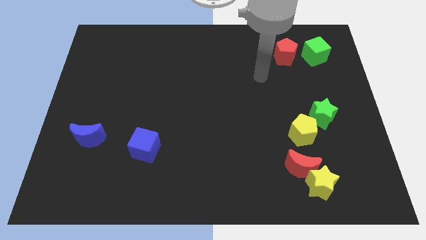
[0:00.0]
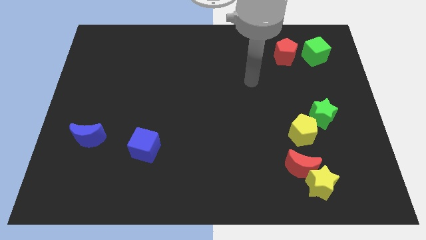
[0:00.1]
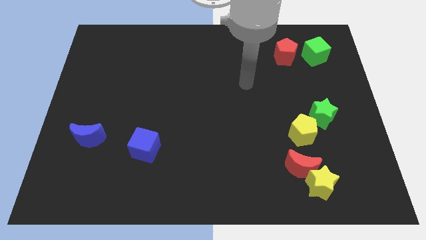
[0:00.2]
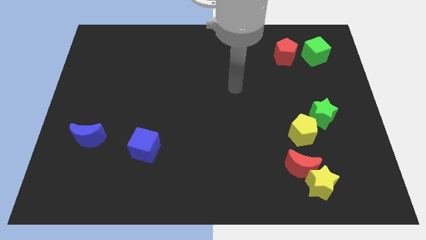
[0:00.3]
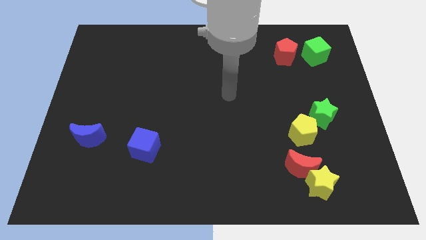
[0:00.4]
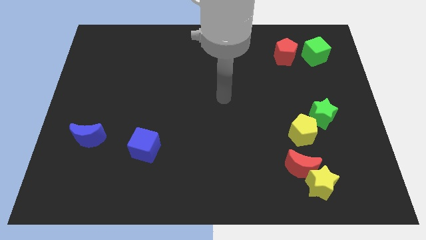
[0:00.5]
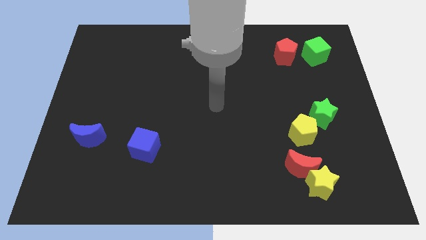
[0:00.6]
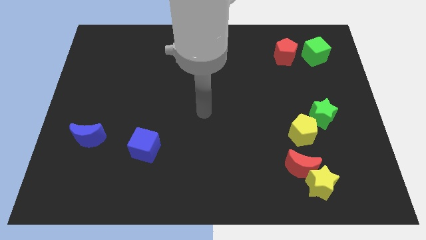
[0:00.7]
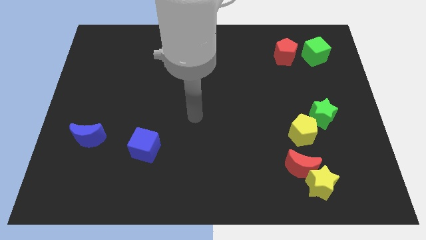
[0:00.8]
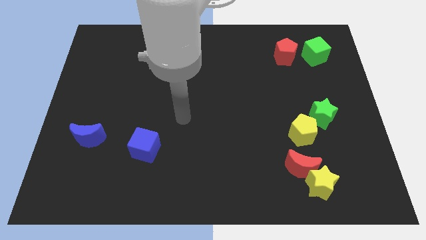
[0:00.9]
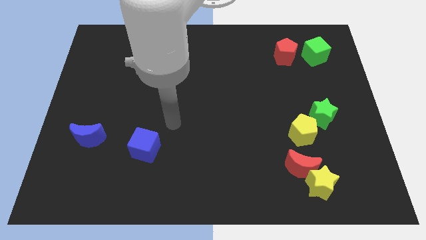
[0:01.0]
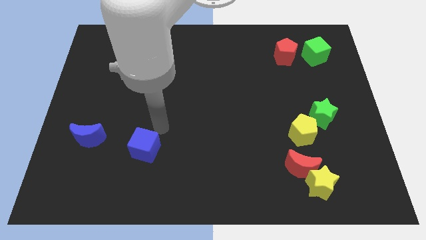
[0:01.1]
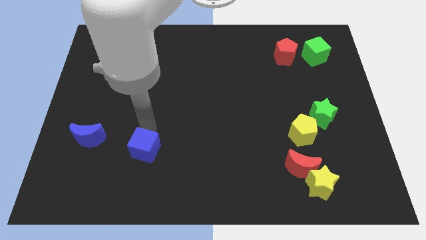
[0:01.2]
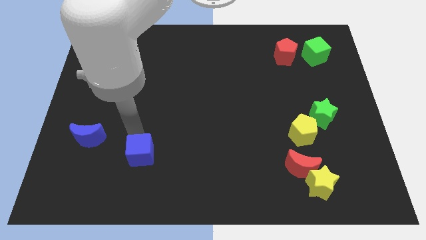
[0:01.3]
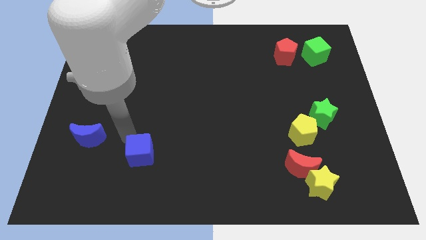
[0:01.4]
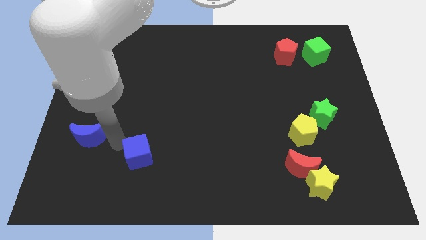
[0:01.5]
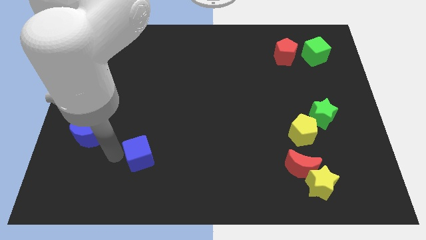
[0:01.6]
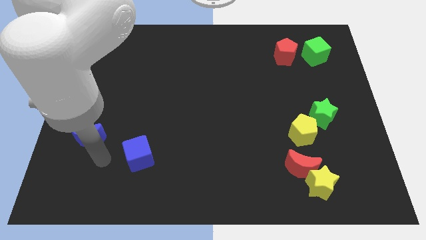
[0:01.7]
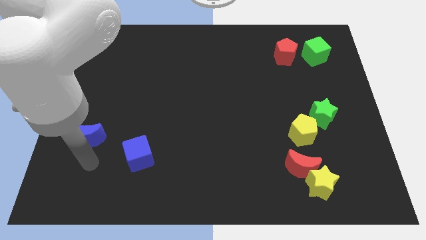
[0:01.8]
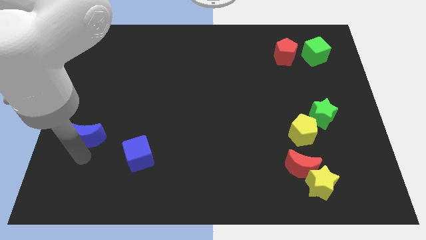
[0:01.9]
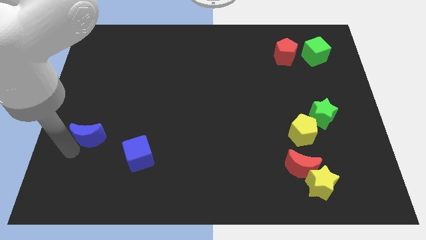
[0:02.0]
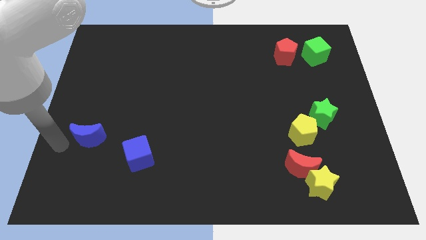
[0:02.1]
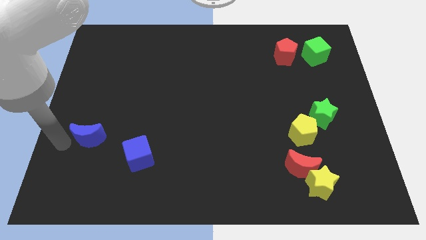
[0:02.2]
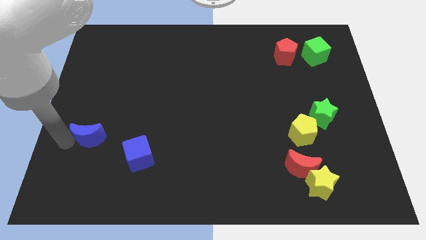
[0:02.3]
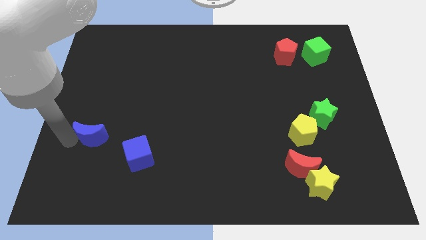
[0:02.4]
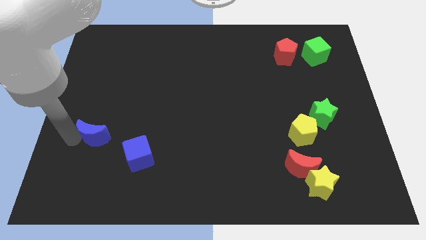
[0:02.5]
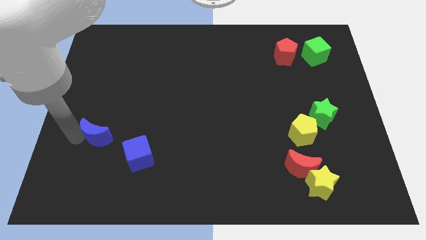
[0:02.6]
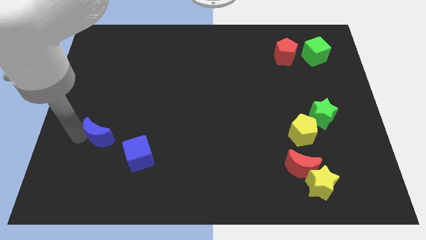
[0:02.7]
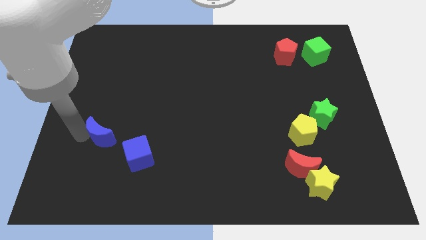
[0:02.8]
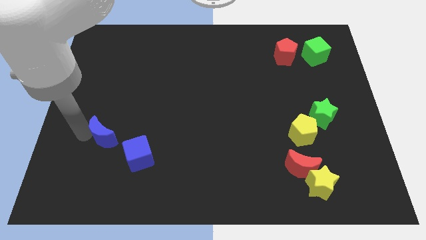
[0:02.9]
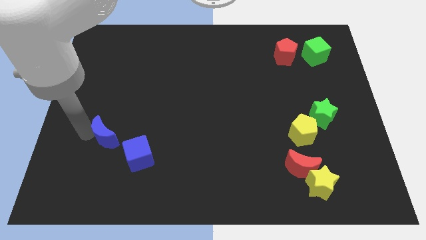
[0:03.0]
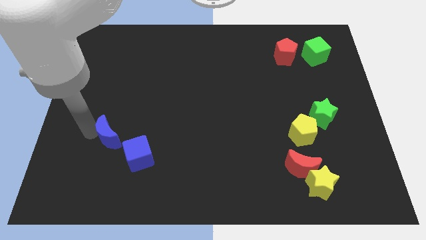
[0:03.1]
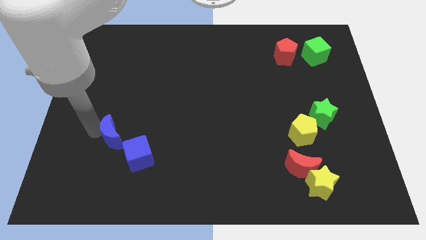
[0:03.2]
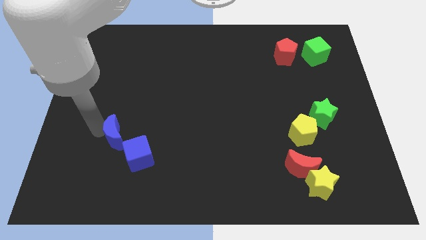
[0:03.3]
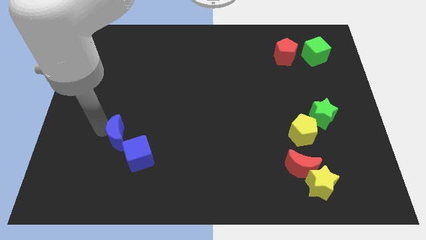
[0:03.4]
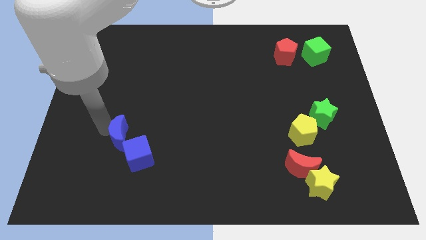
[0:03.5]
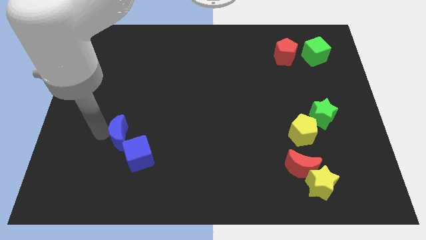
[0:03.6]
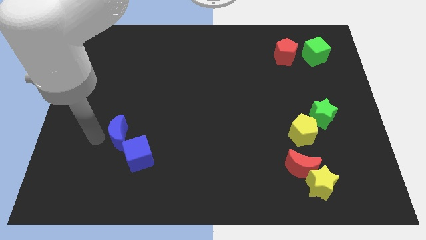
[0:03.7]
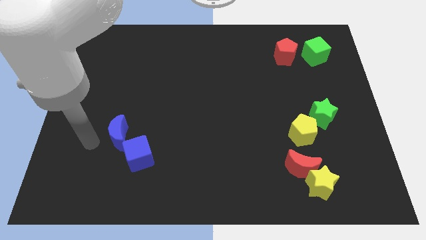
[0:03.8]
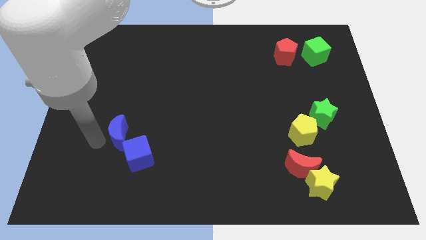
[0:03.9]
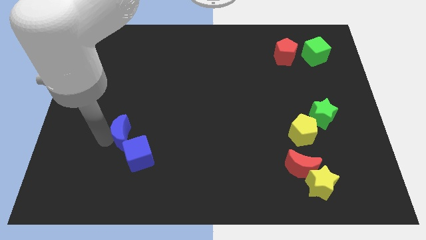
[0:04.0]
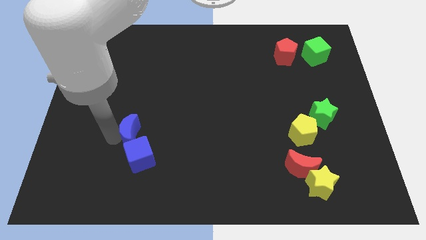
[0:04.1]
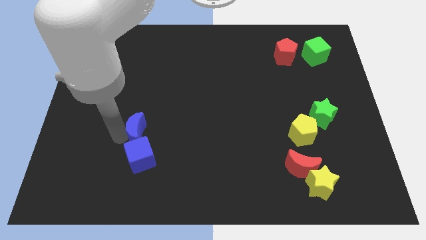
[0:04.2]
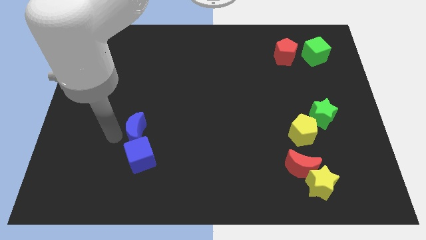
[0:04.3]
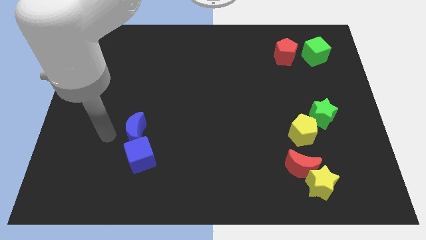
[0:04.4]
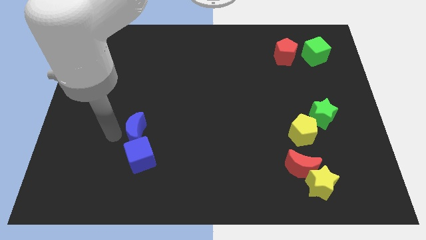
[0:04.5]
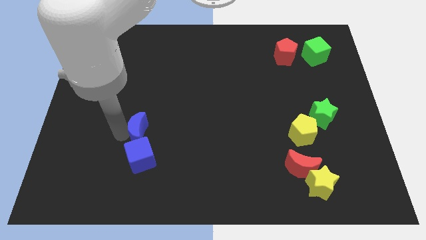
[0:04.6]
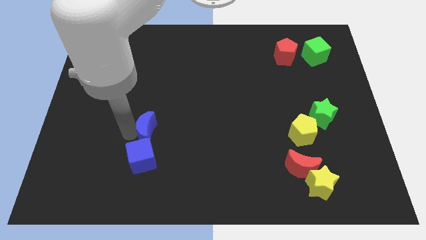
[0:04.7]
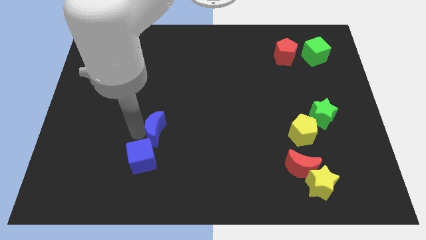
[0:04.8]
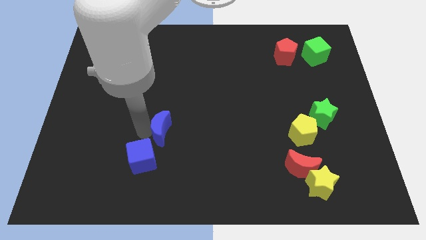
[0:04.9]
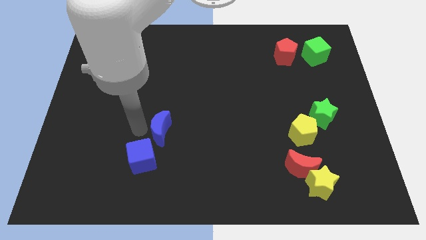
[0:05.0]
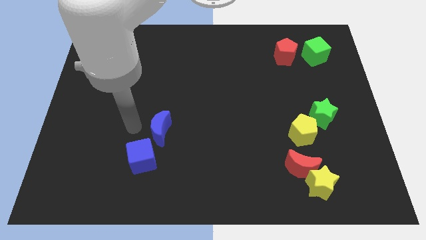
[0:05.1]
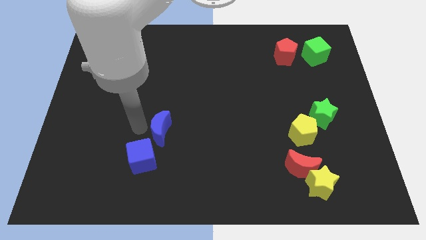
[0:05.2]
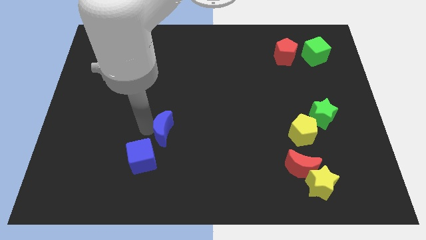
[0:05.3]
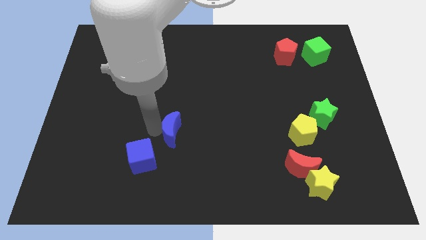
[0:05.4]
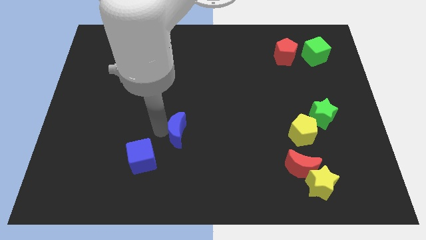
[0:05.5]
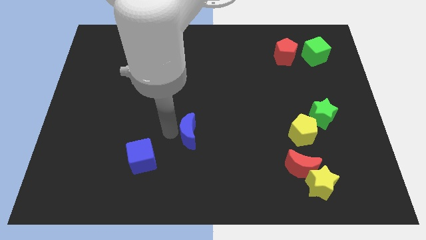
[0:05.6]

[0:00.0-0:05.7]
slide the blue moon to the right

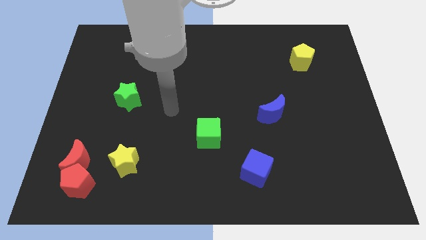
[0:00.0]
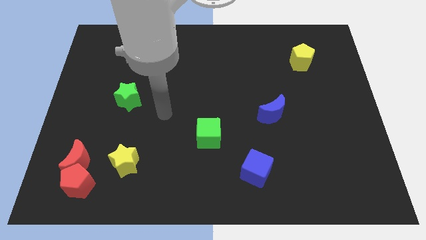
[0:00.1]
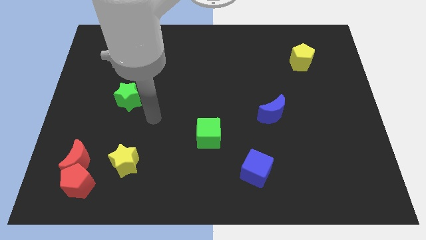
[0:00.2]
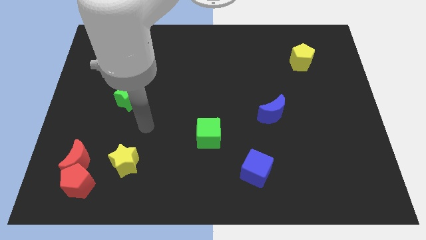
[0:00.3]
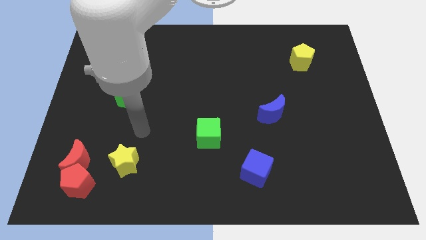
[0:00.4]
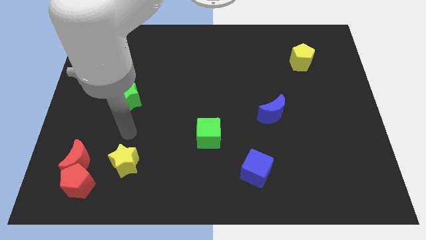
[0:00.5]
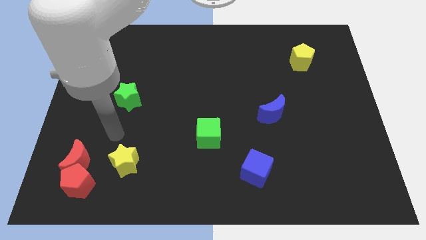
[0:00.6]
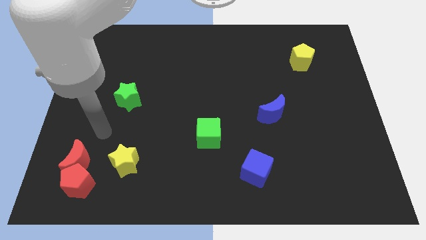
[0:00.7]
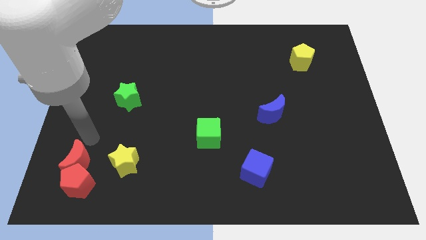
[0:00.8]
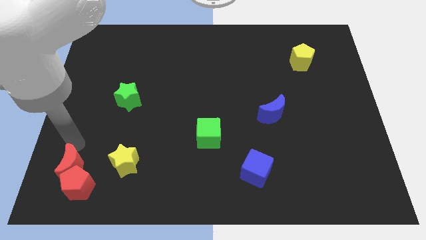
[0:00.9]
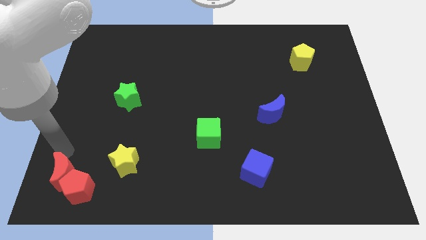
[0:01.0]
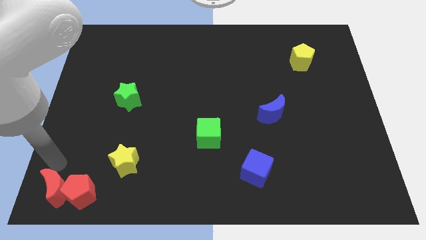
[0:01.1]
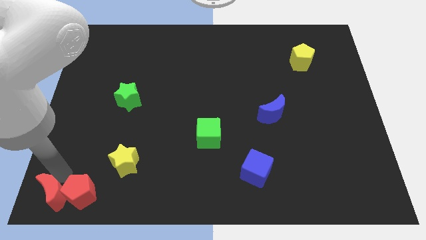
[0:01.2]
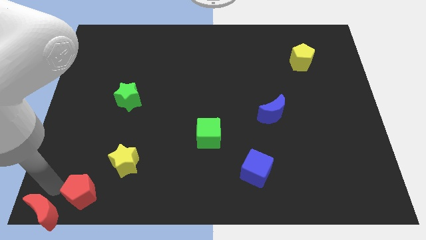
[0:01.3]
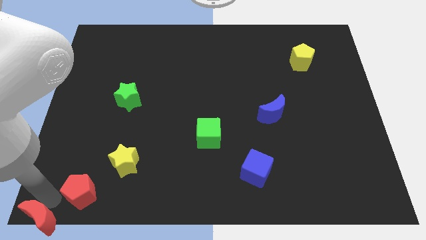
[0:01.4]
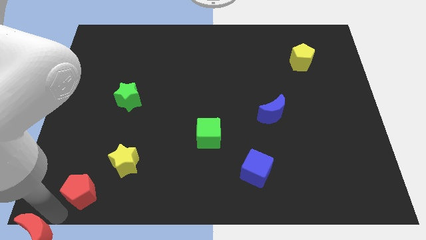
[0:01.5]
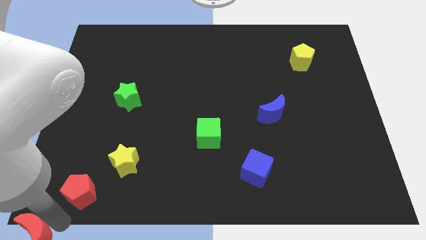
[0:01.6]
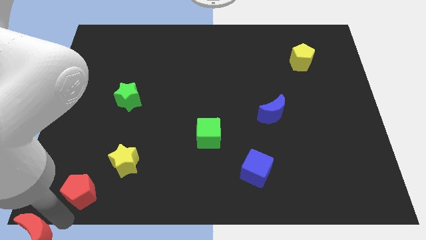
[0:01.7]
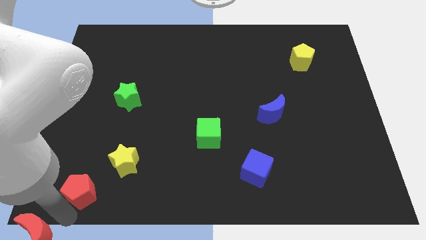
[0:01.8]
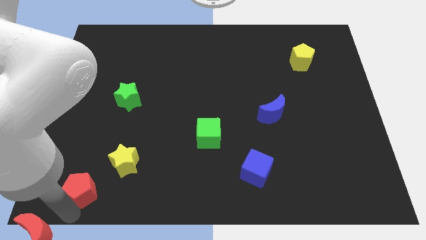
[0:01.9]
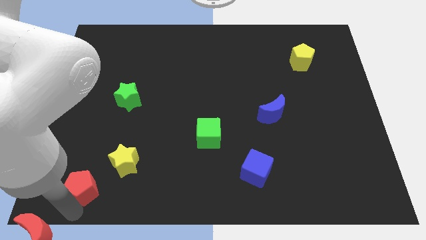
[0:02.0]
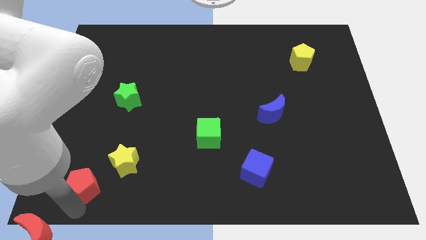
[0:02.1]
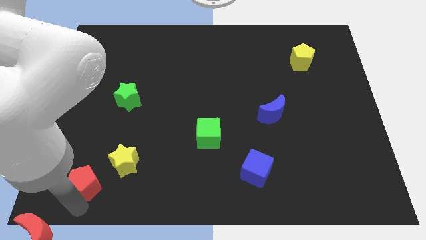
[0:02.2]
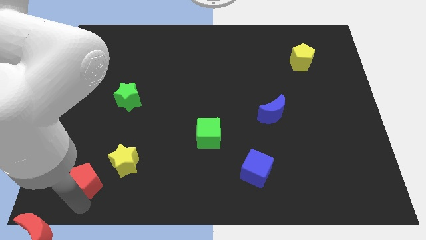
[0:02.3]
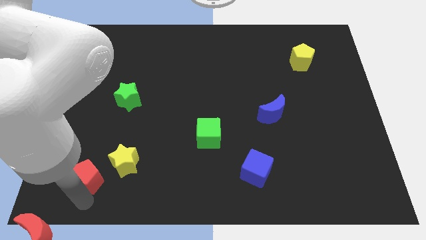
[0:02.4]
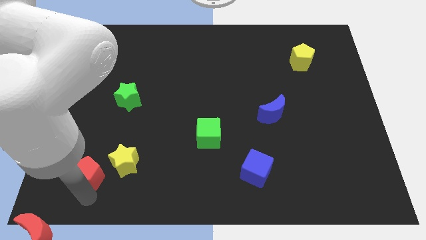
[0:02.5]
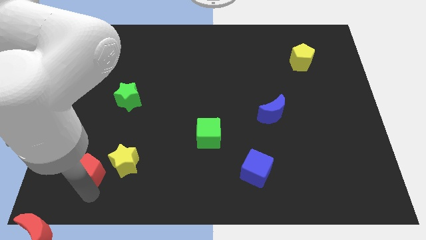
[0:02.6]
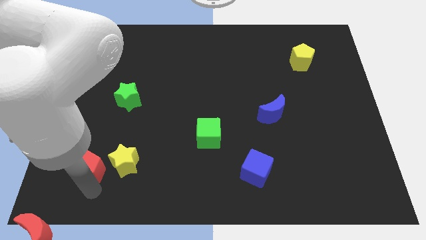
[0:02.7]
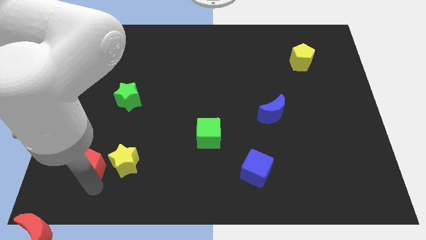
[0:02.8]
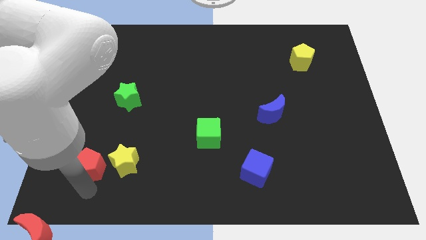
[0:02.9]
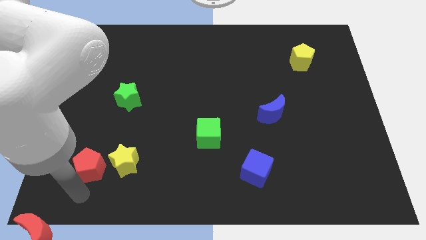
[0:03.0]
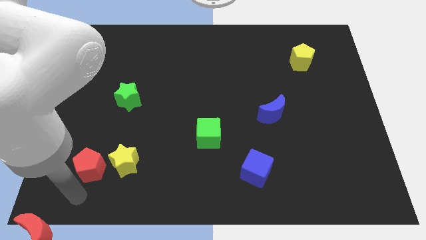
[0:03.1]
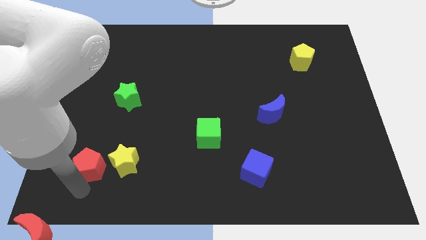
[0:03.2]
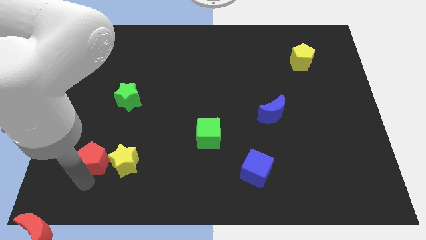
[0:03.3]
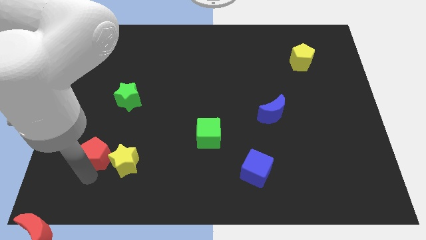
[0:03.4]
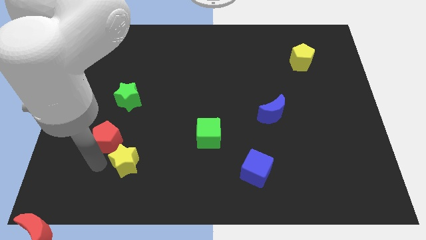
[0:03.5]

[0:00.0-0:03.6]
push the red pentagon up a little bit
